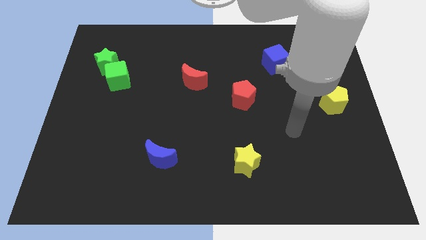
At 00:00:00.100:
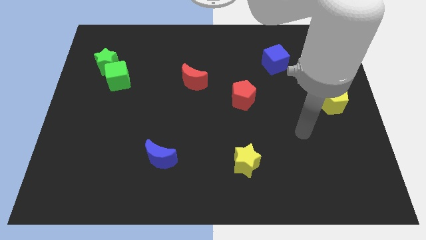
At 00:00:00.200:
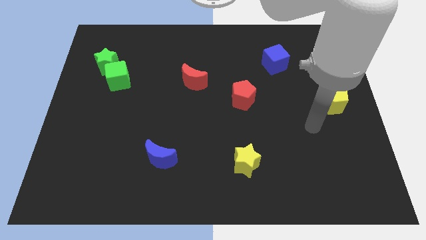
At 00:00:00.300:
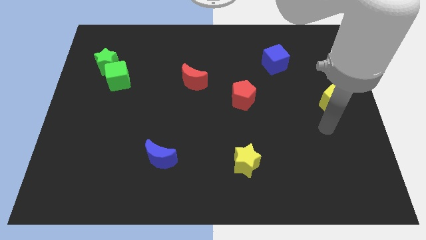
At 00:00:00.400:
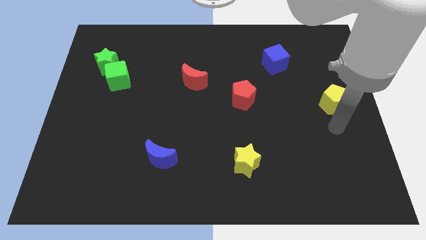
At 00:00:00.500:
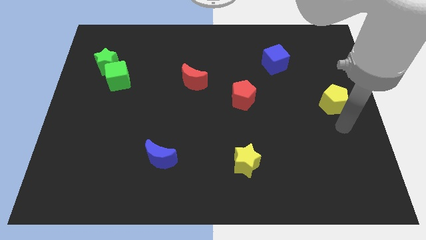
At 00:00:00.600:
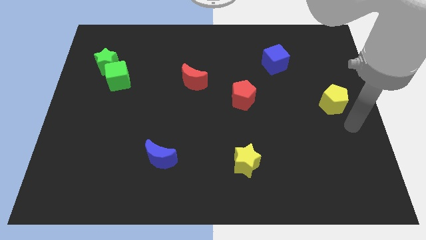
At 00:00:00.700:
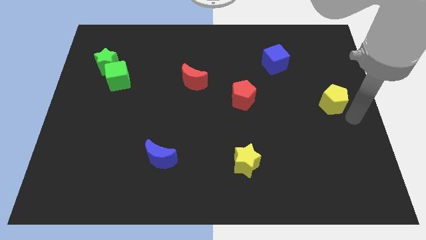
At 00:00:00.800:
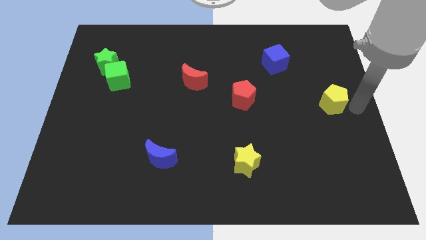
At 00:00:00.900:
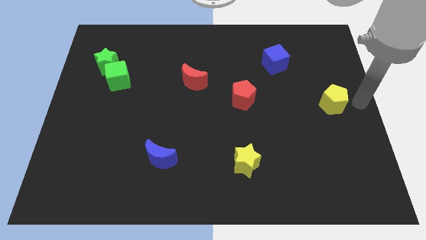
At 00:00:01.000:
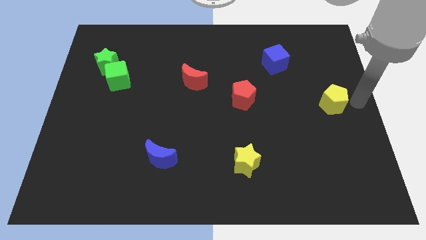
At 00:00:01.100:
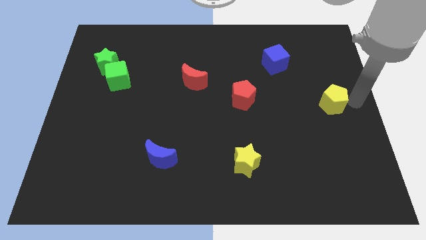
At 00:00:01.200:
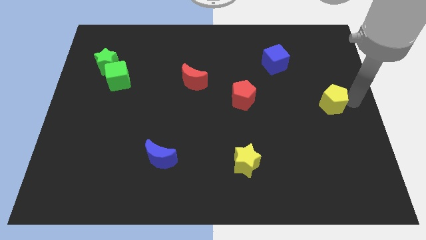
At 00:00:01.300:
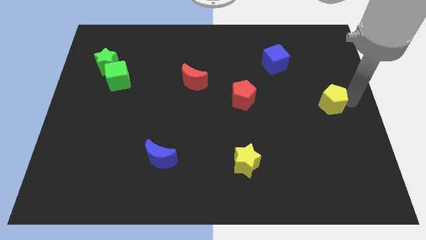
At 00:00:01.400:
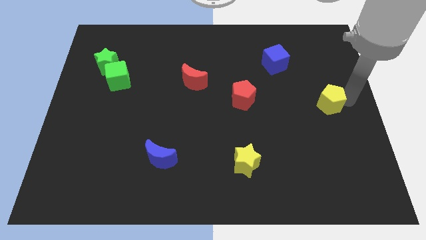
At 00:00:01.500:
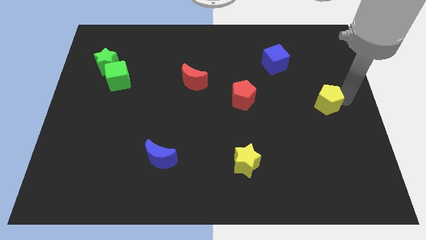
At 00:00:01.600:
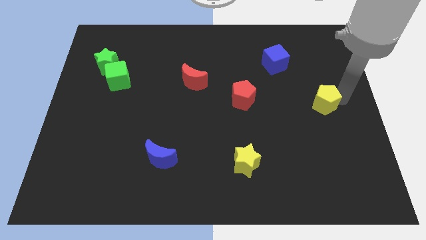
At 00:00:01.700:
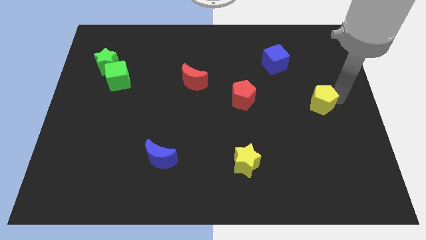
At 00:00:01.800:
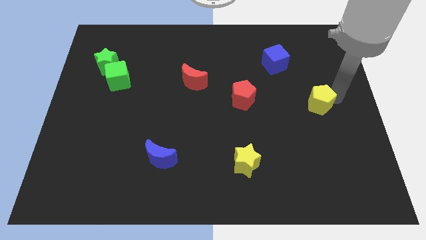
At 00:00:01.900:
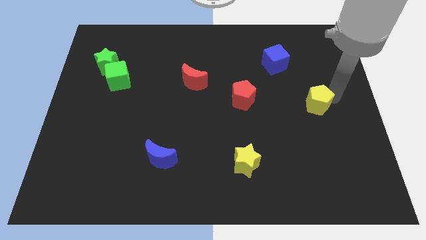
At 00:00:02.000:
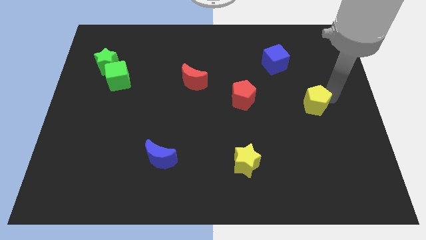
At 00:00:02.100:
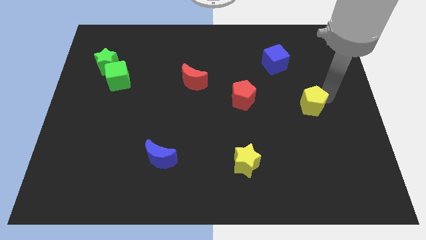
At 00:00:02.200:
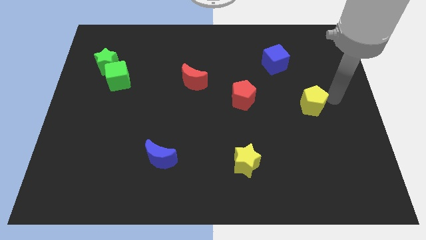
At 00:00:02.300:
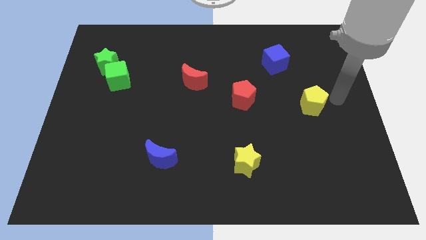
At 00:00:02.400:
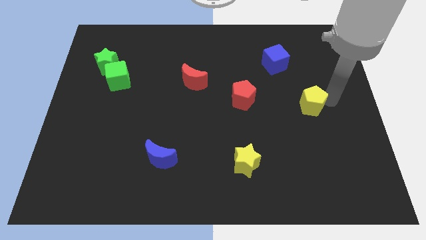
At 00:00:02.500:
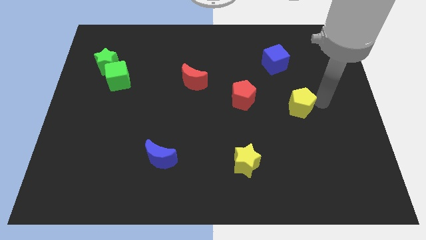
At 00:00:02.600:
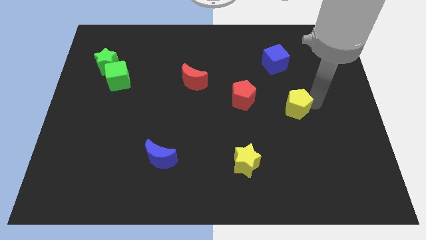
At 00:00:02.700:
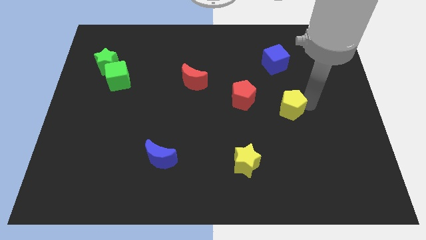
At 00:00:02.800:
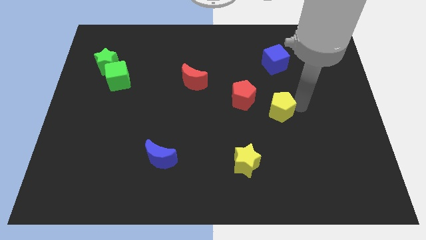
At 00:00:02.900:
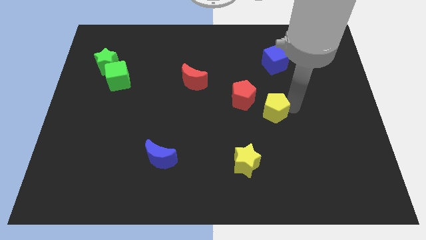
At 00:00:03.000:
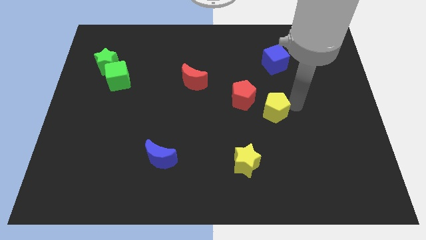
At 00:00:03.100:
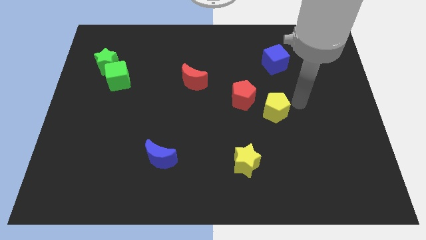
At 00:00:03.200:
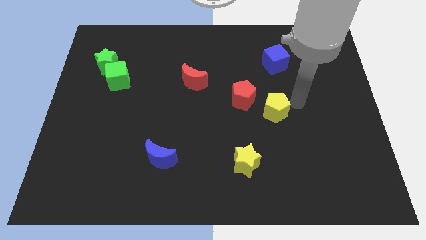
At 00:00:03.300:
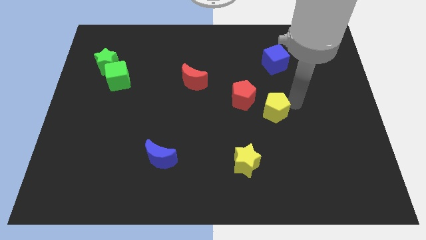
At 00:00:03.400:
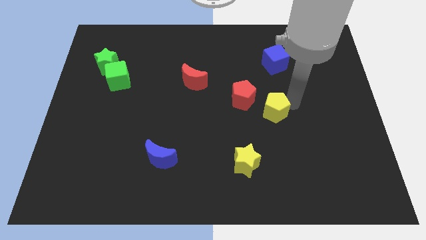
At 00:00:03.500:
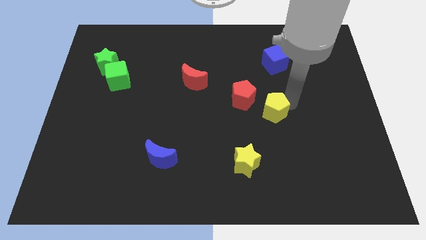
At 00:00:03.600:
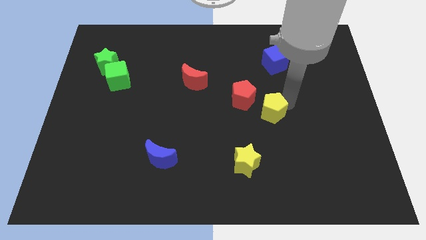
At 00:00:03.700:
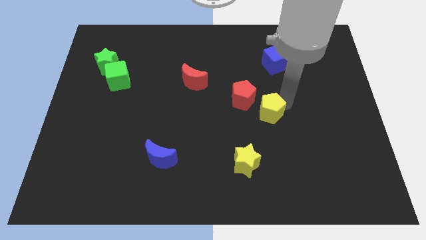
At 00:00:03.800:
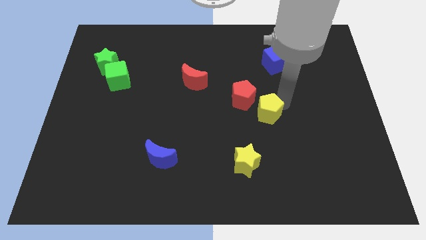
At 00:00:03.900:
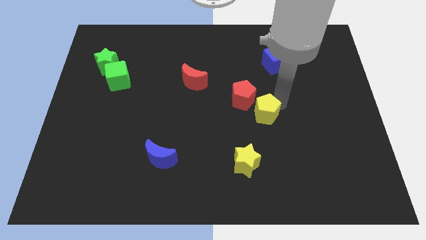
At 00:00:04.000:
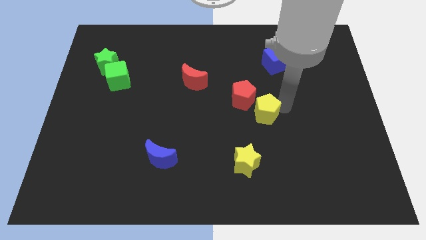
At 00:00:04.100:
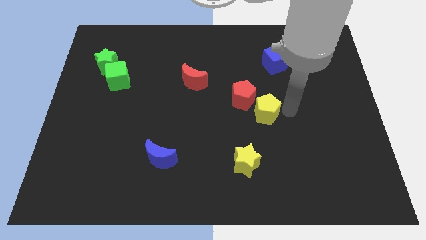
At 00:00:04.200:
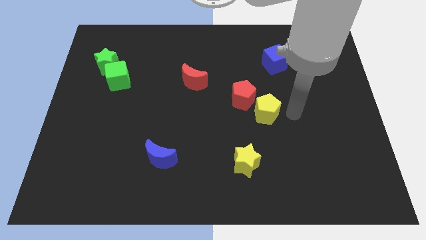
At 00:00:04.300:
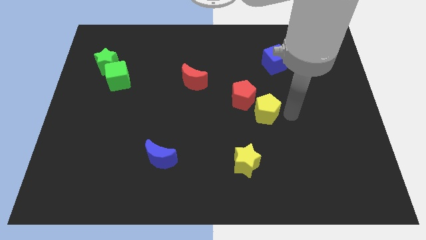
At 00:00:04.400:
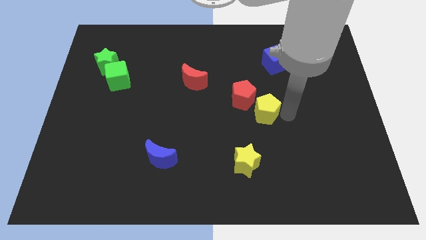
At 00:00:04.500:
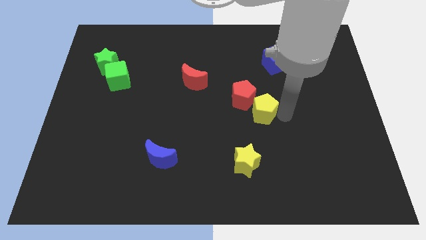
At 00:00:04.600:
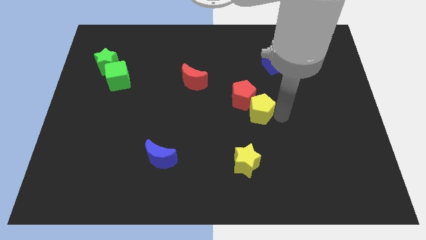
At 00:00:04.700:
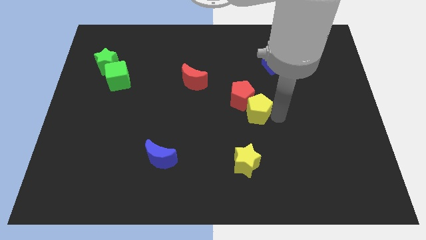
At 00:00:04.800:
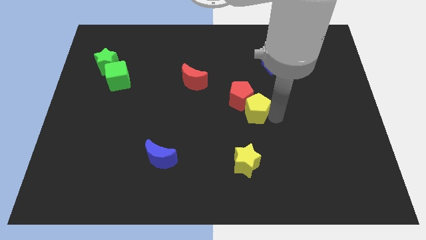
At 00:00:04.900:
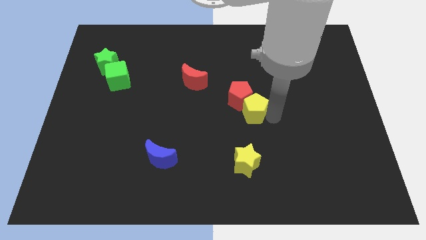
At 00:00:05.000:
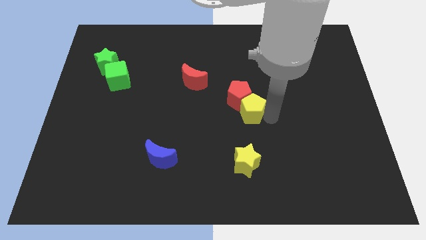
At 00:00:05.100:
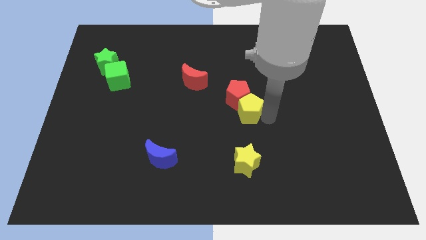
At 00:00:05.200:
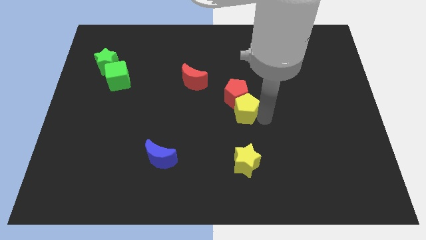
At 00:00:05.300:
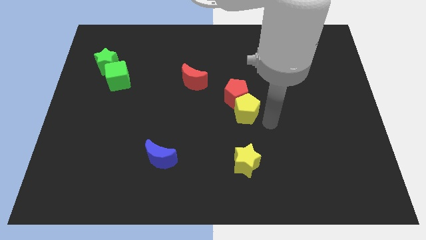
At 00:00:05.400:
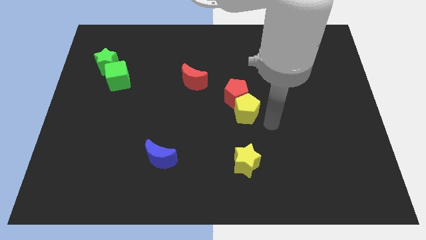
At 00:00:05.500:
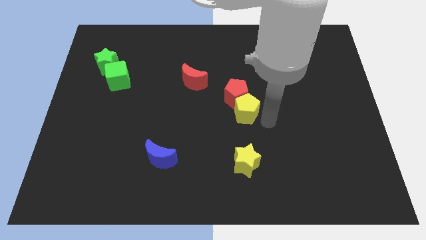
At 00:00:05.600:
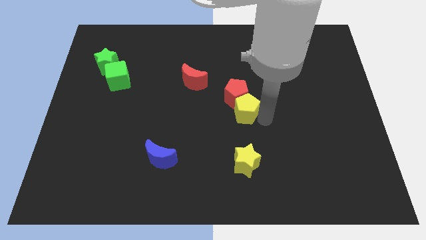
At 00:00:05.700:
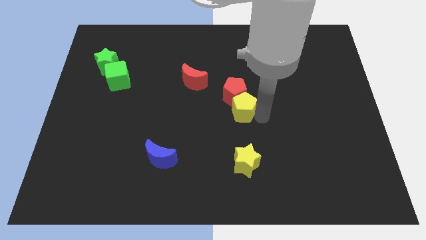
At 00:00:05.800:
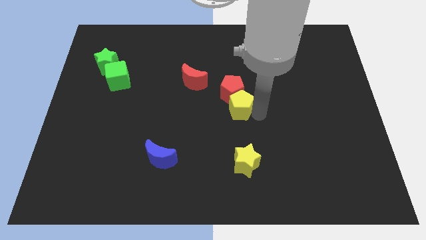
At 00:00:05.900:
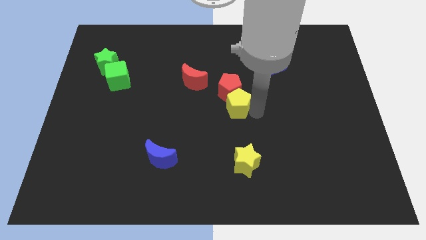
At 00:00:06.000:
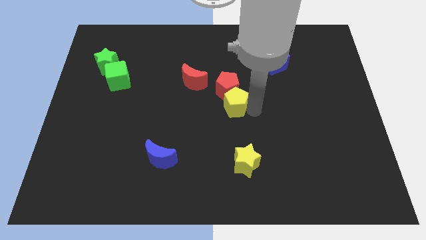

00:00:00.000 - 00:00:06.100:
slide the yellow pentagon diagonally down and to the right of the red moon

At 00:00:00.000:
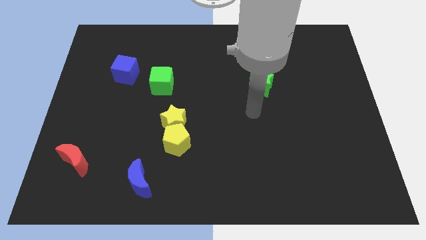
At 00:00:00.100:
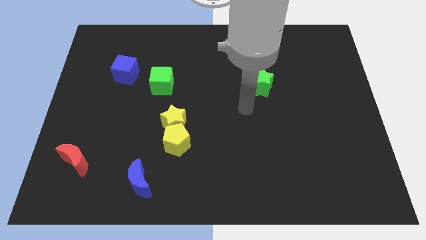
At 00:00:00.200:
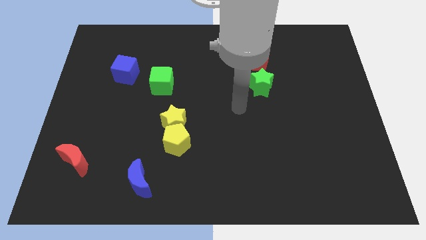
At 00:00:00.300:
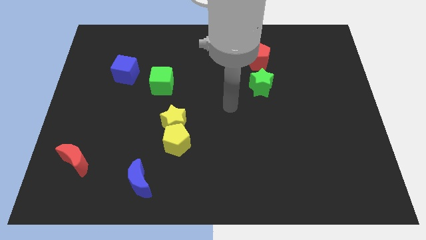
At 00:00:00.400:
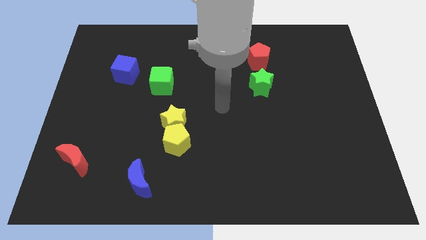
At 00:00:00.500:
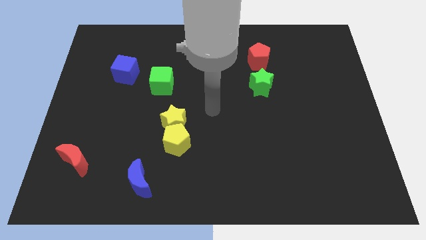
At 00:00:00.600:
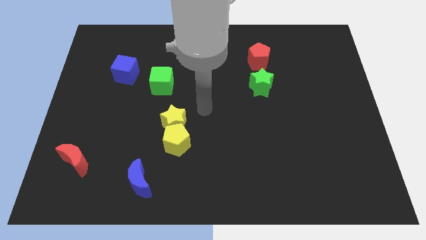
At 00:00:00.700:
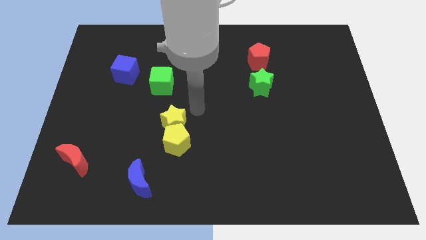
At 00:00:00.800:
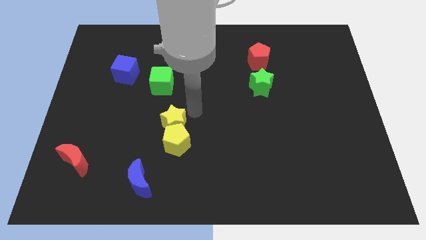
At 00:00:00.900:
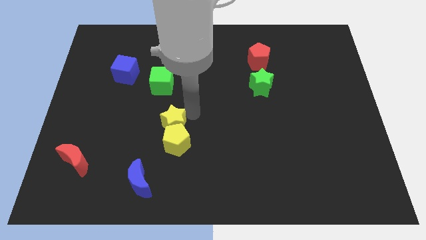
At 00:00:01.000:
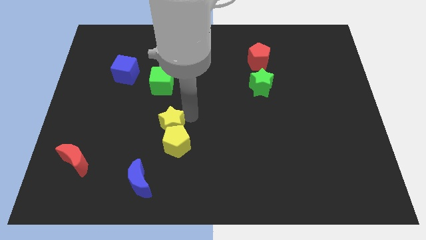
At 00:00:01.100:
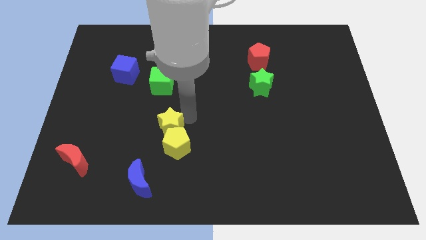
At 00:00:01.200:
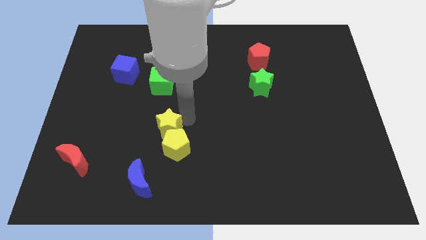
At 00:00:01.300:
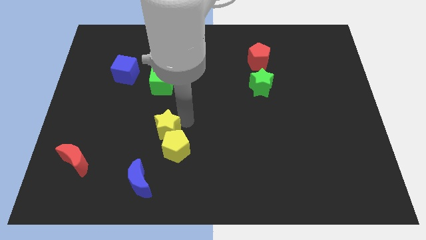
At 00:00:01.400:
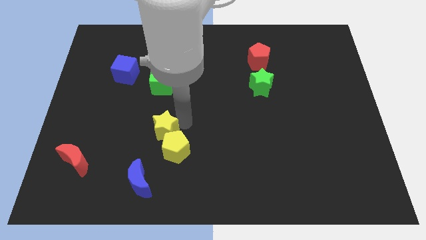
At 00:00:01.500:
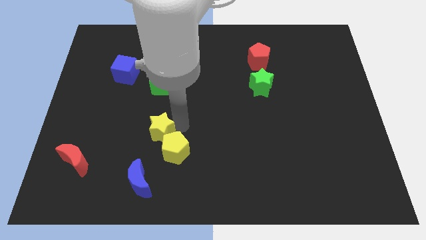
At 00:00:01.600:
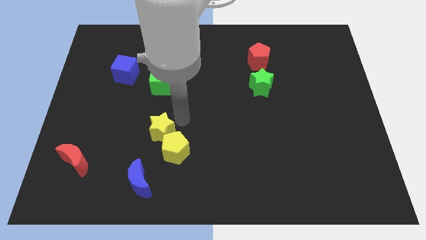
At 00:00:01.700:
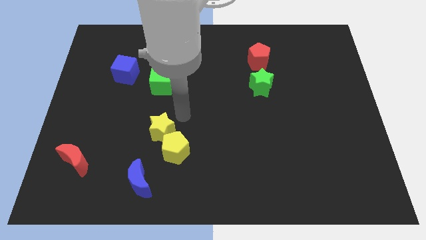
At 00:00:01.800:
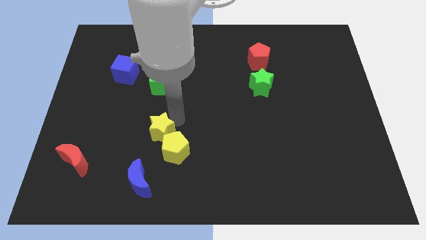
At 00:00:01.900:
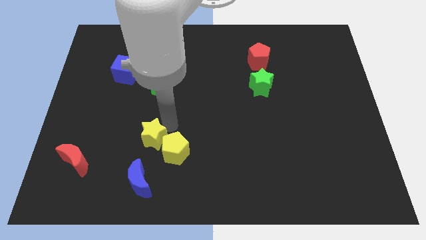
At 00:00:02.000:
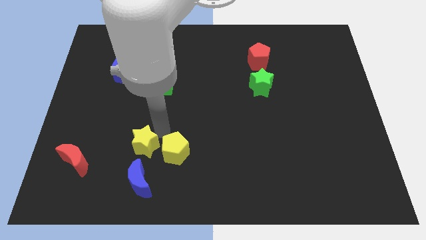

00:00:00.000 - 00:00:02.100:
slide the yellow star just right of the red moon
